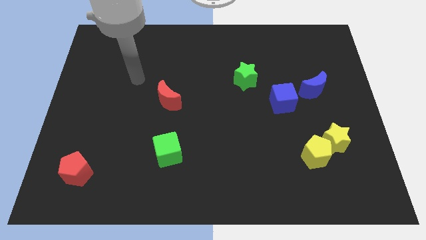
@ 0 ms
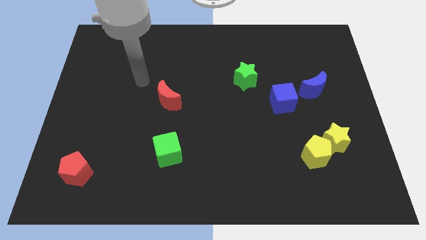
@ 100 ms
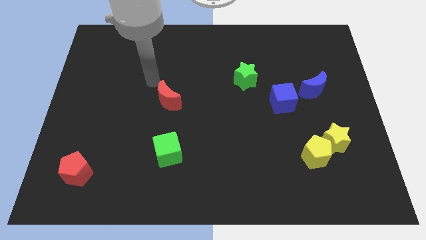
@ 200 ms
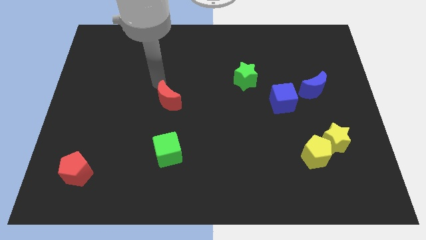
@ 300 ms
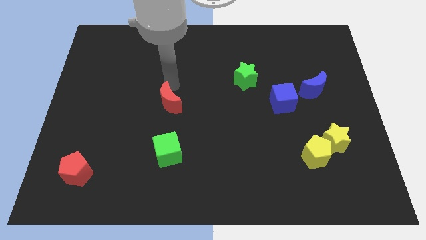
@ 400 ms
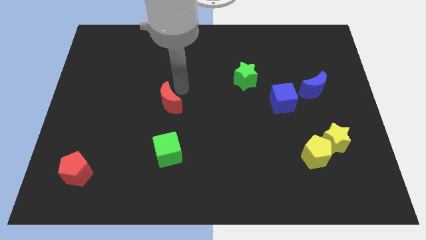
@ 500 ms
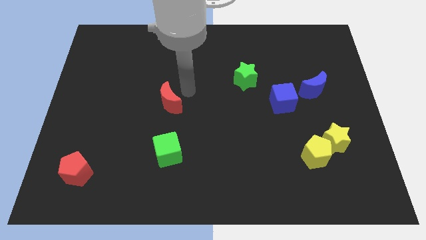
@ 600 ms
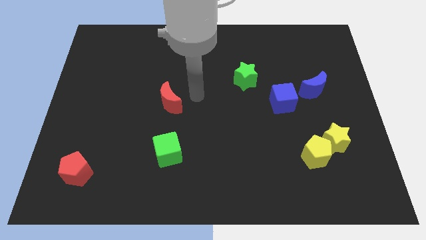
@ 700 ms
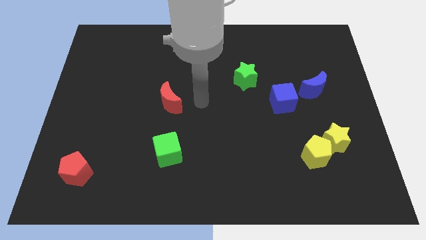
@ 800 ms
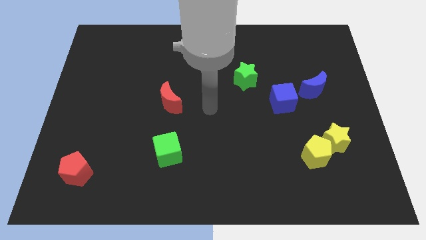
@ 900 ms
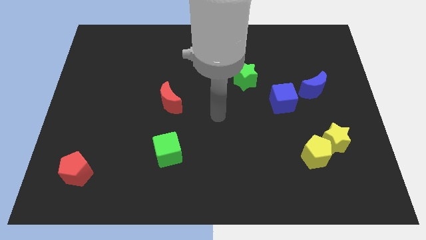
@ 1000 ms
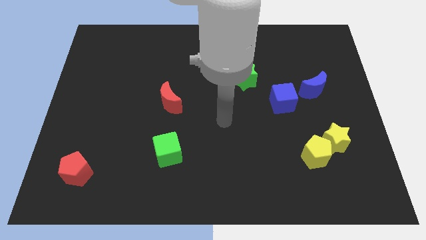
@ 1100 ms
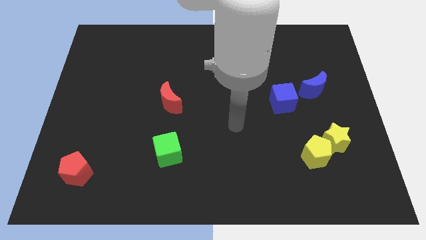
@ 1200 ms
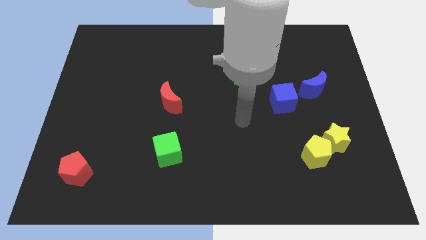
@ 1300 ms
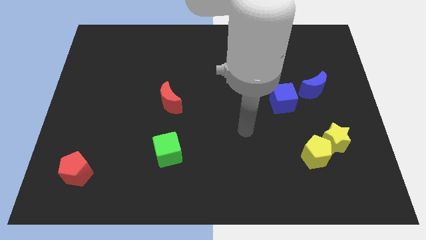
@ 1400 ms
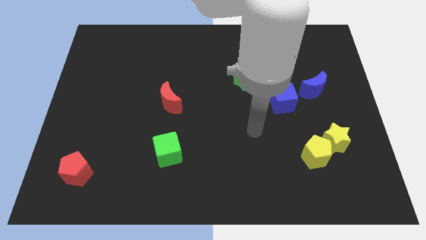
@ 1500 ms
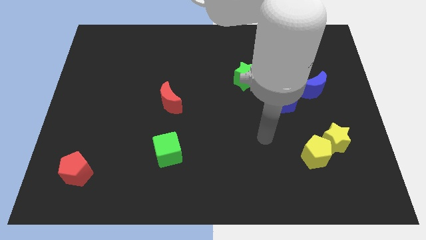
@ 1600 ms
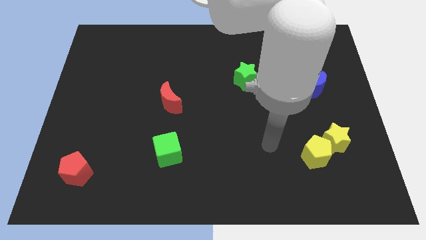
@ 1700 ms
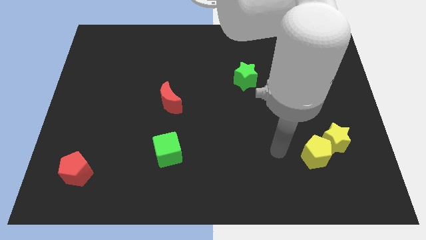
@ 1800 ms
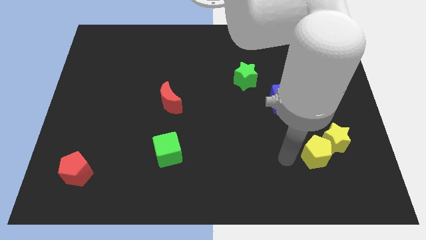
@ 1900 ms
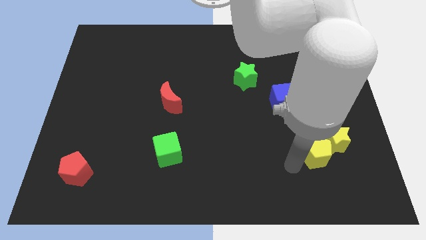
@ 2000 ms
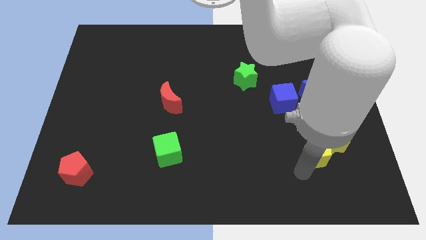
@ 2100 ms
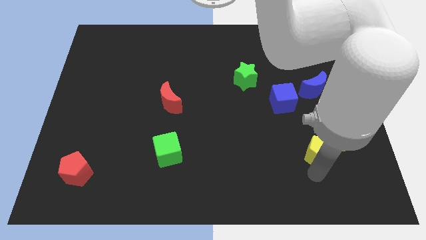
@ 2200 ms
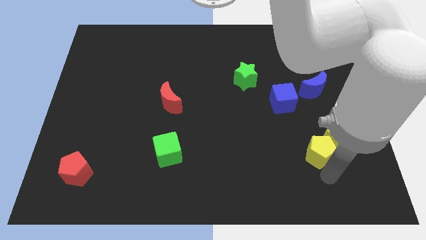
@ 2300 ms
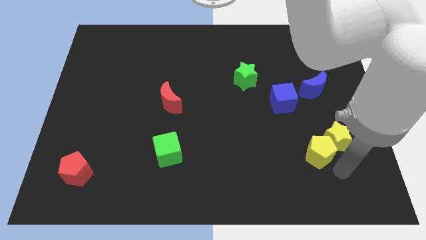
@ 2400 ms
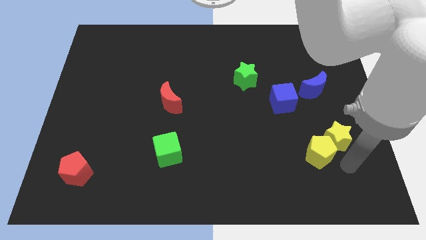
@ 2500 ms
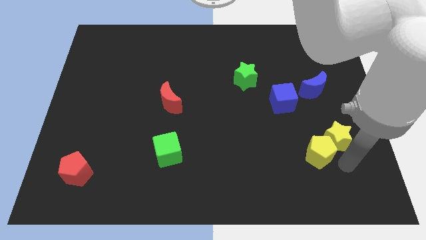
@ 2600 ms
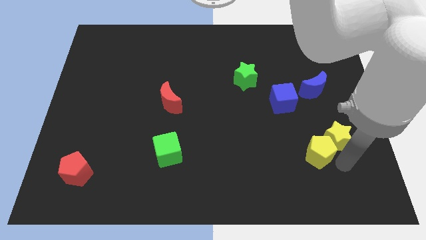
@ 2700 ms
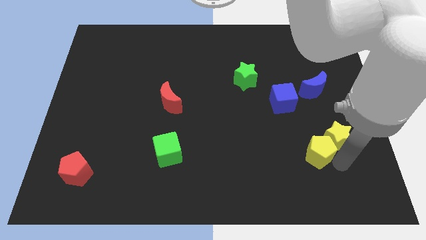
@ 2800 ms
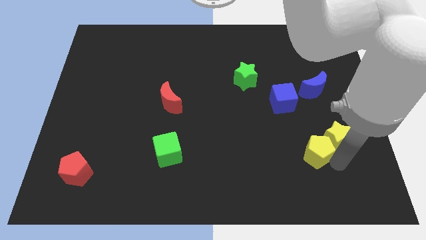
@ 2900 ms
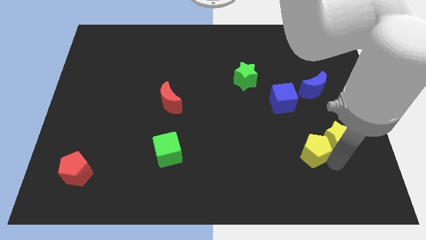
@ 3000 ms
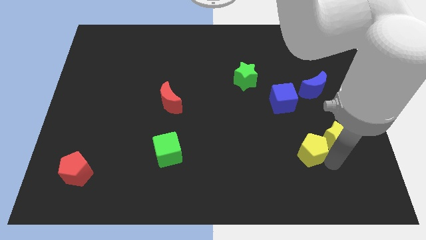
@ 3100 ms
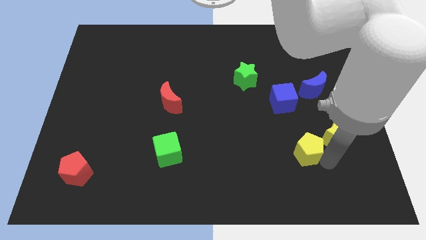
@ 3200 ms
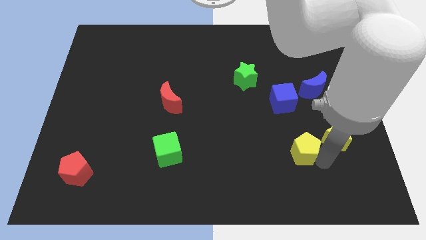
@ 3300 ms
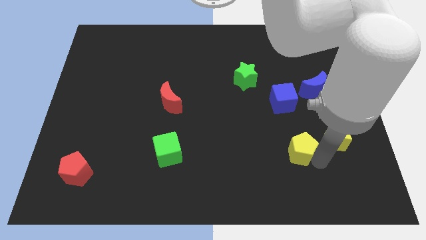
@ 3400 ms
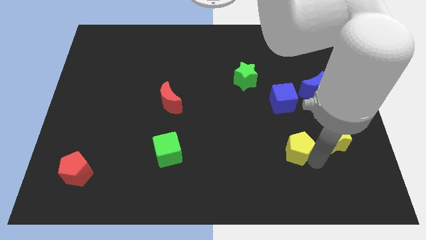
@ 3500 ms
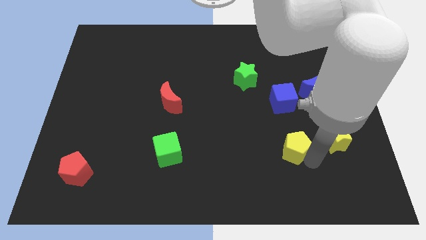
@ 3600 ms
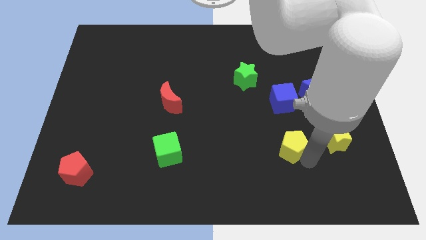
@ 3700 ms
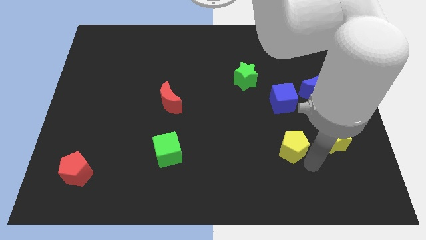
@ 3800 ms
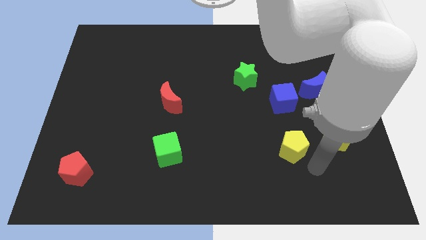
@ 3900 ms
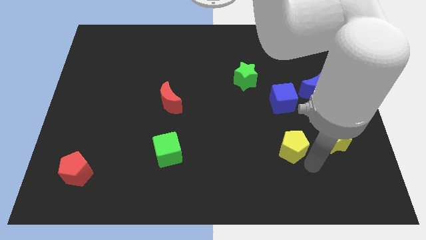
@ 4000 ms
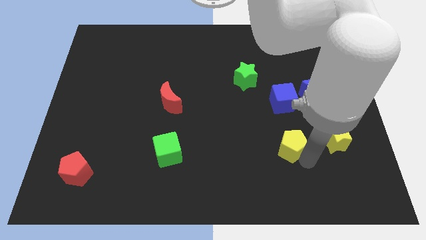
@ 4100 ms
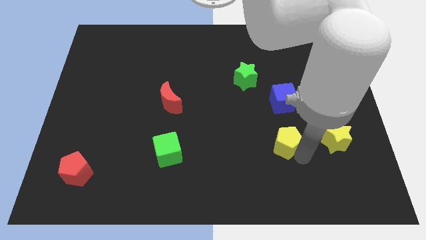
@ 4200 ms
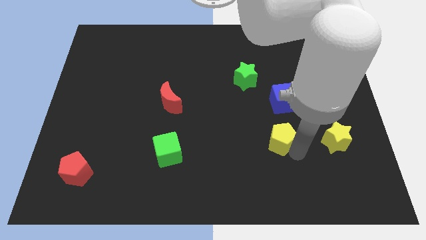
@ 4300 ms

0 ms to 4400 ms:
push the yellow pentagon up and then left a bit

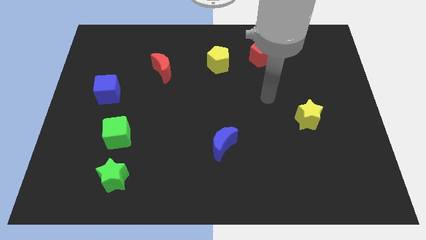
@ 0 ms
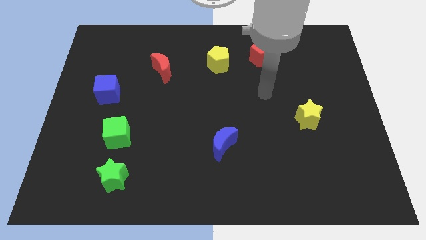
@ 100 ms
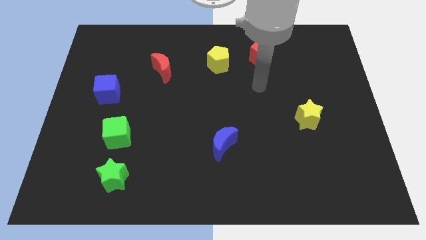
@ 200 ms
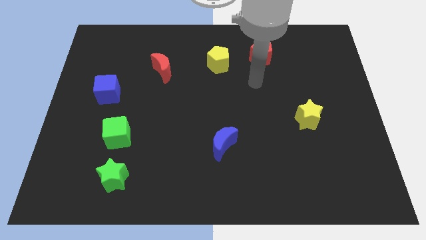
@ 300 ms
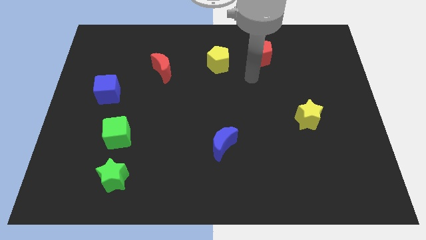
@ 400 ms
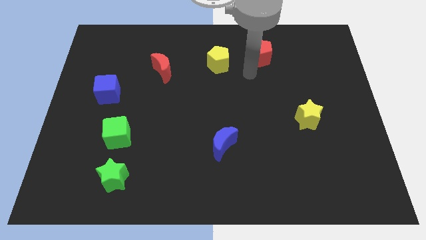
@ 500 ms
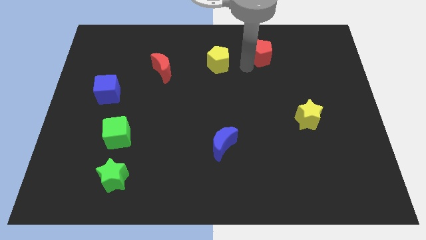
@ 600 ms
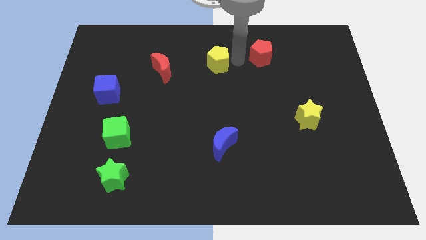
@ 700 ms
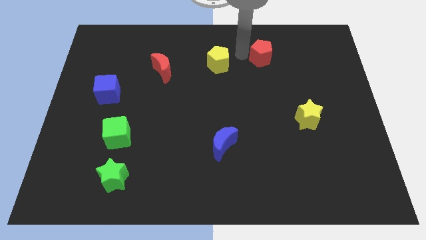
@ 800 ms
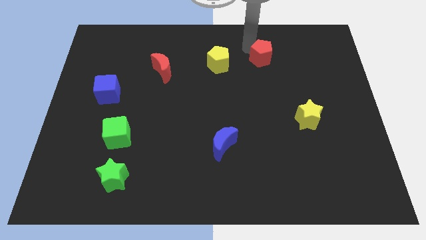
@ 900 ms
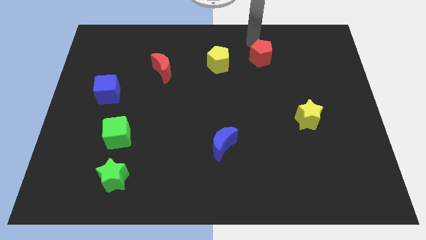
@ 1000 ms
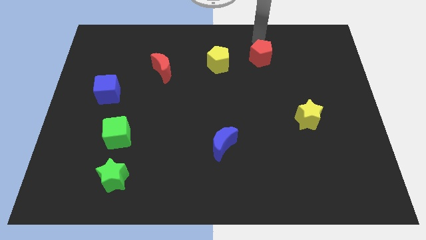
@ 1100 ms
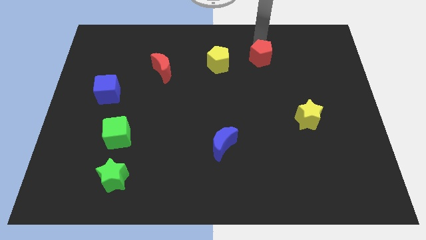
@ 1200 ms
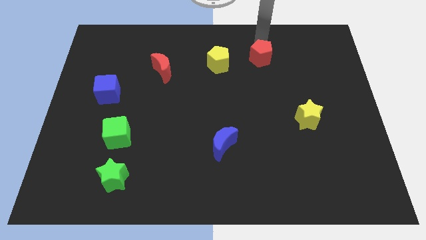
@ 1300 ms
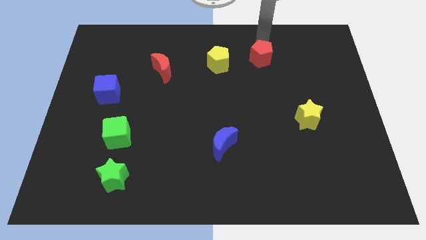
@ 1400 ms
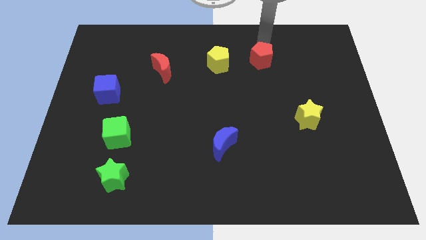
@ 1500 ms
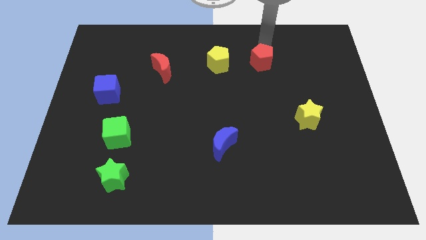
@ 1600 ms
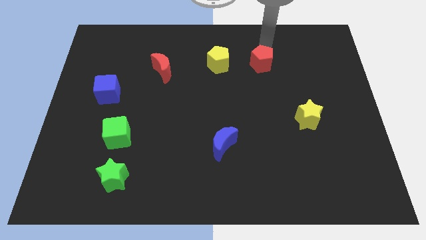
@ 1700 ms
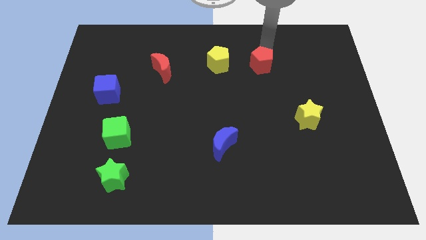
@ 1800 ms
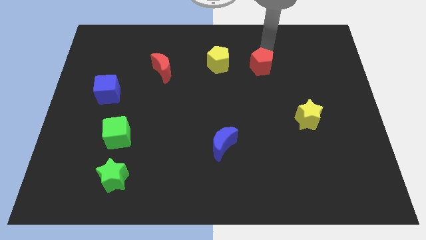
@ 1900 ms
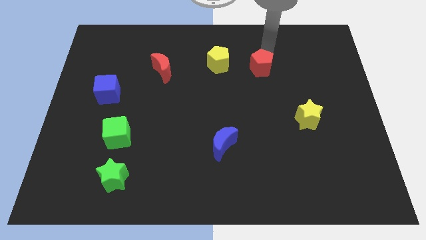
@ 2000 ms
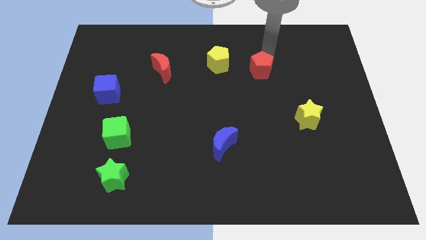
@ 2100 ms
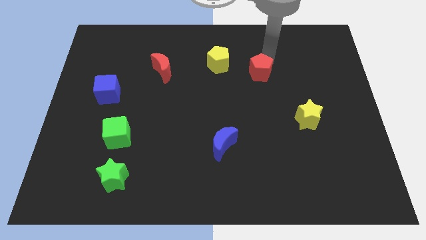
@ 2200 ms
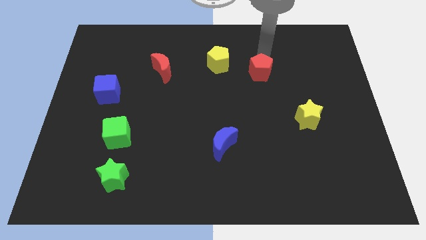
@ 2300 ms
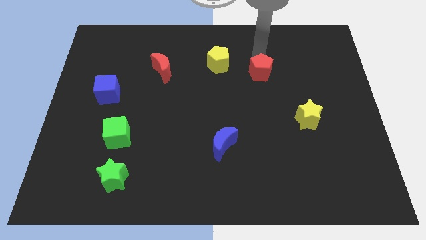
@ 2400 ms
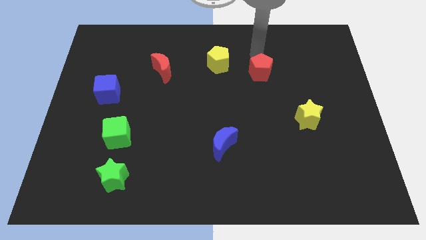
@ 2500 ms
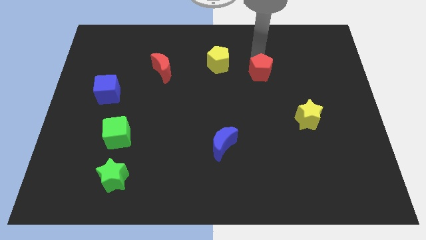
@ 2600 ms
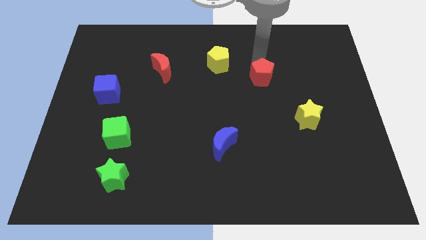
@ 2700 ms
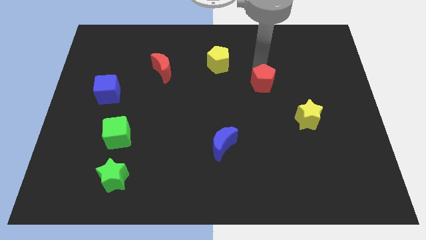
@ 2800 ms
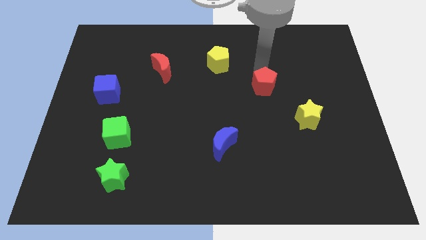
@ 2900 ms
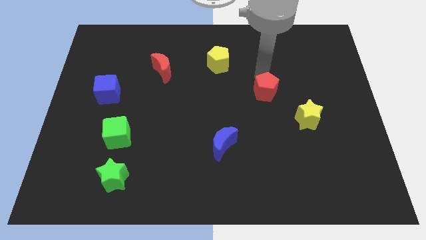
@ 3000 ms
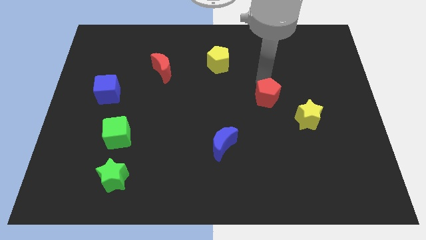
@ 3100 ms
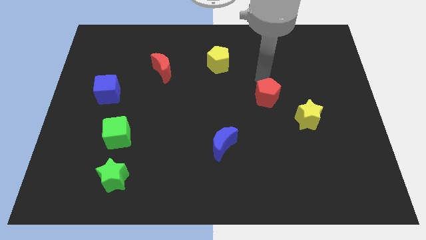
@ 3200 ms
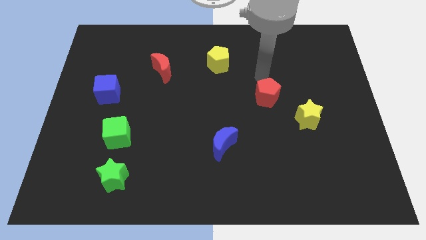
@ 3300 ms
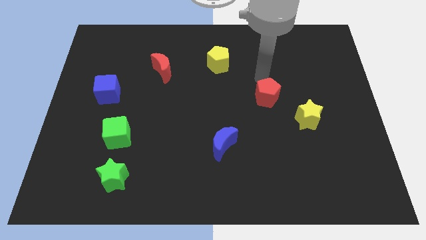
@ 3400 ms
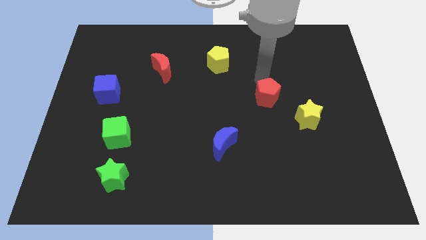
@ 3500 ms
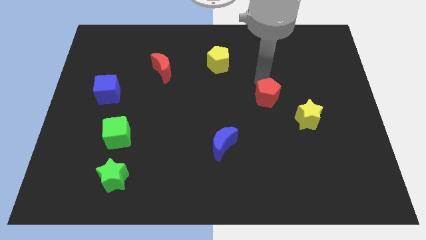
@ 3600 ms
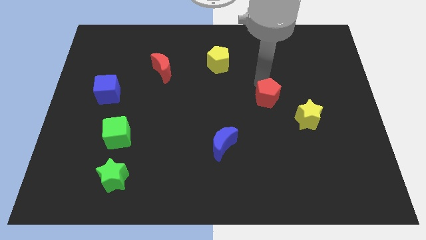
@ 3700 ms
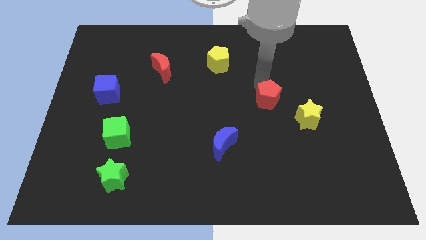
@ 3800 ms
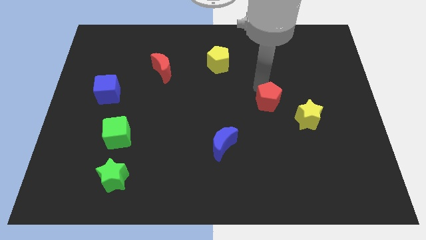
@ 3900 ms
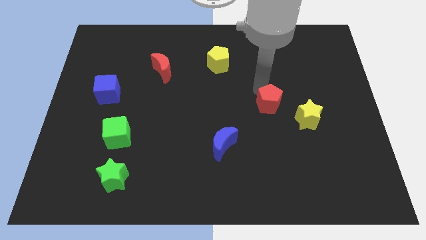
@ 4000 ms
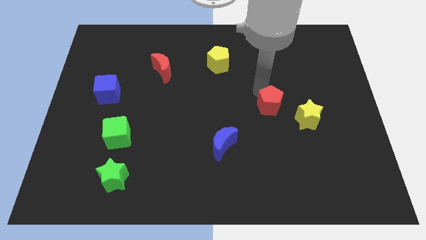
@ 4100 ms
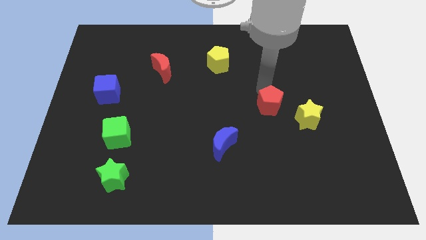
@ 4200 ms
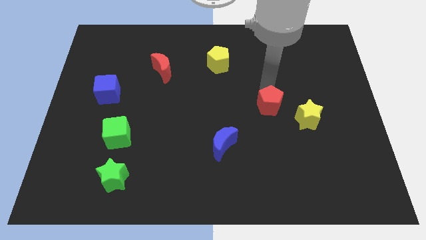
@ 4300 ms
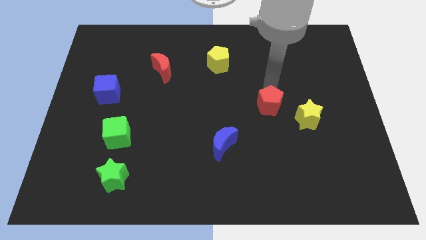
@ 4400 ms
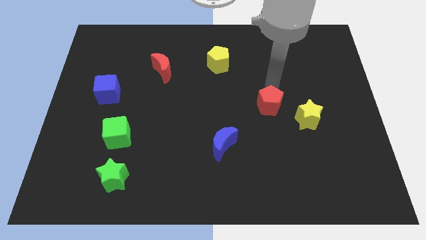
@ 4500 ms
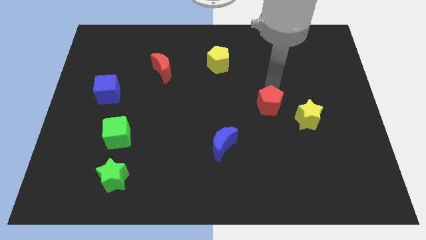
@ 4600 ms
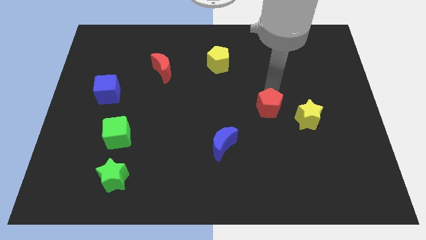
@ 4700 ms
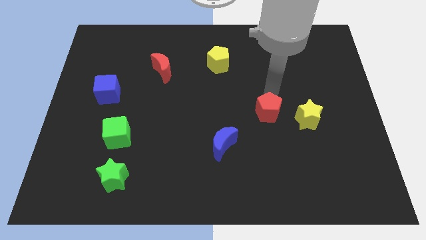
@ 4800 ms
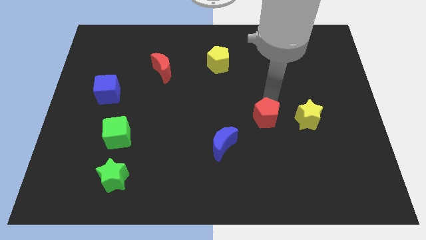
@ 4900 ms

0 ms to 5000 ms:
push the red pentagon down
